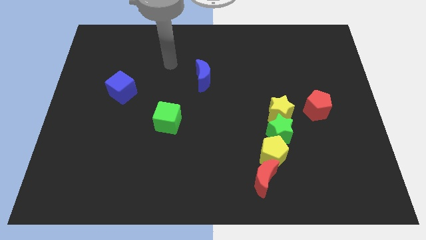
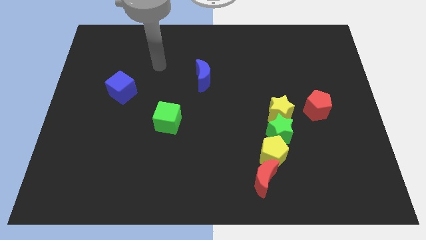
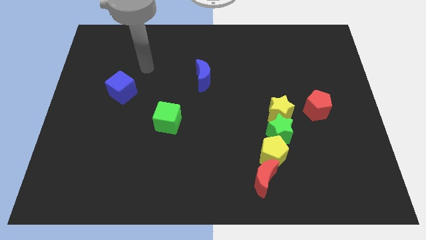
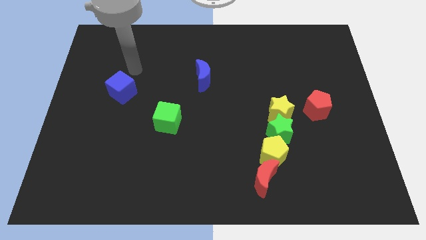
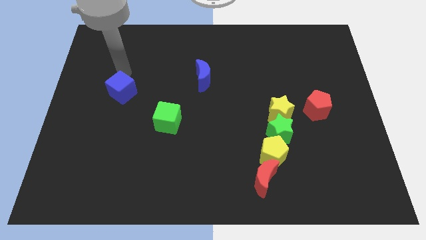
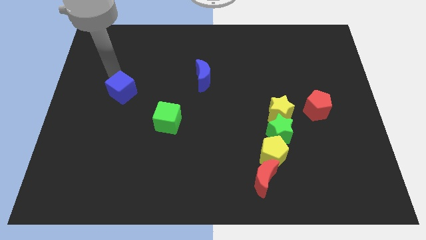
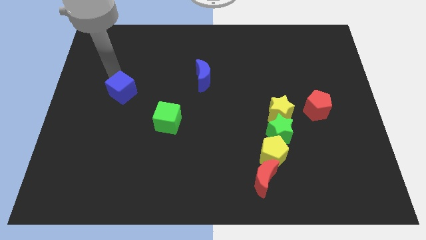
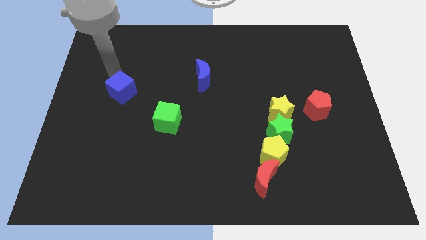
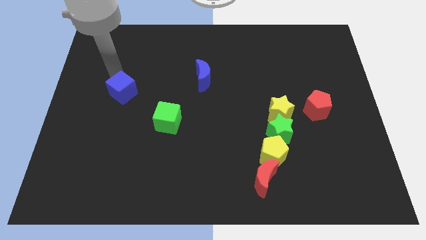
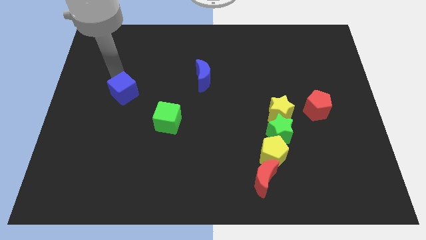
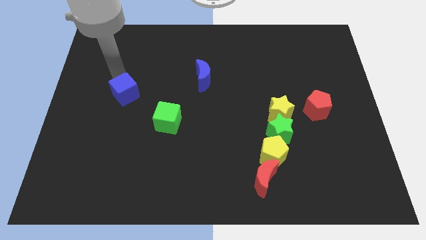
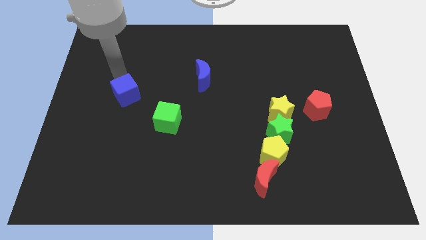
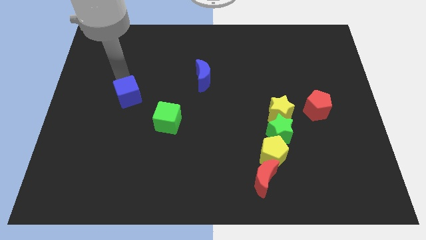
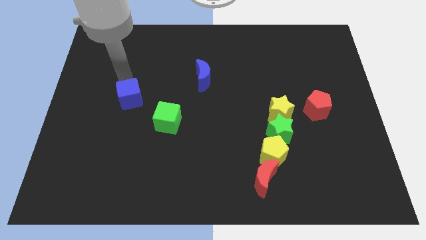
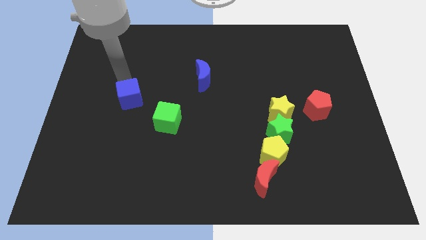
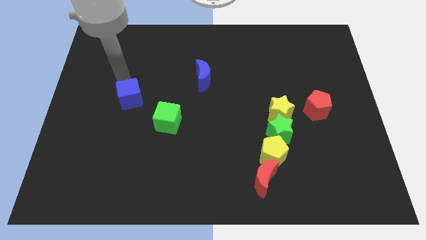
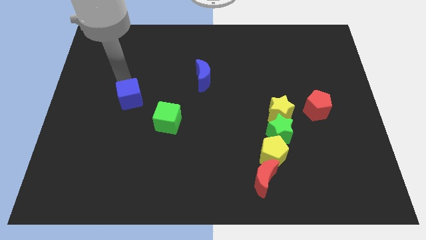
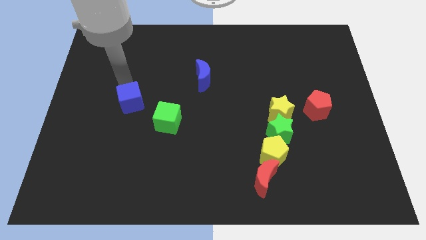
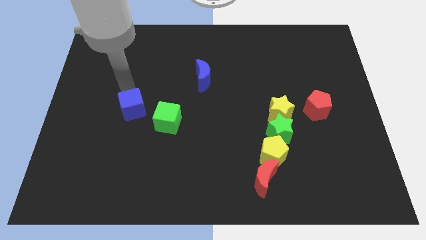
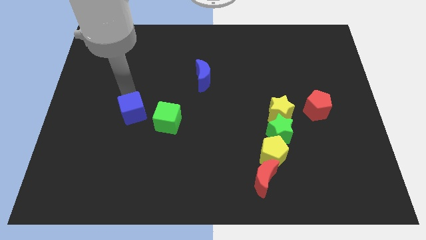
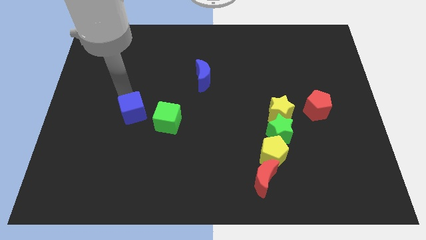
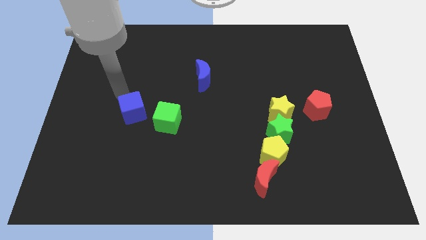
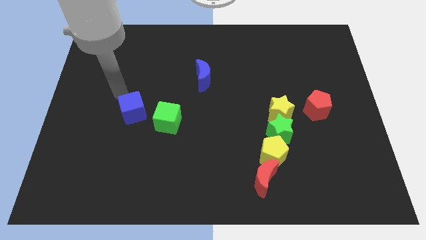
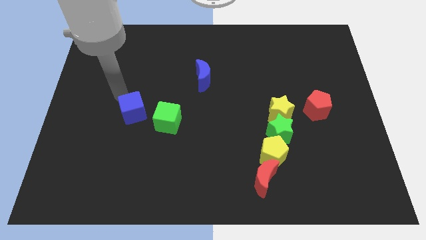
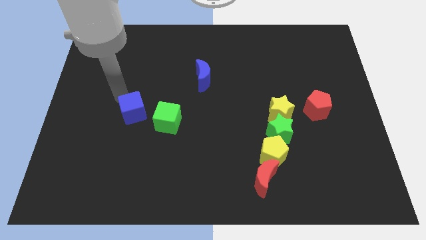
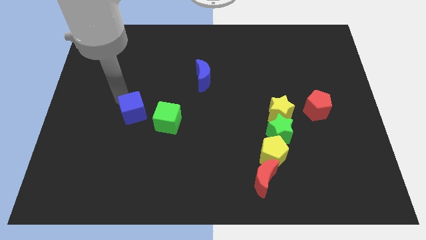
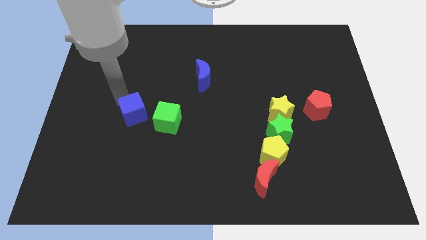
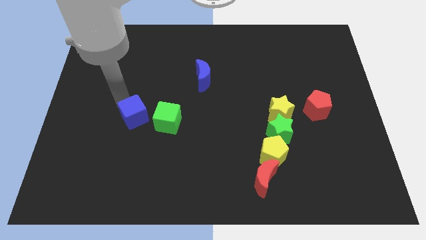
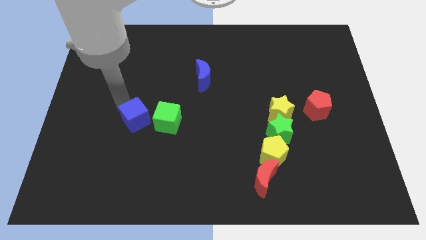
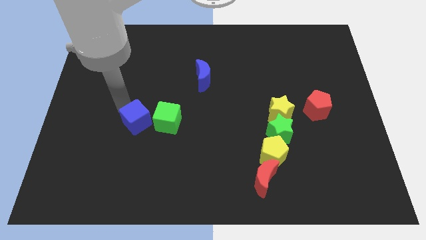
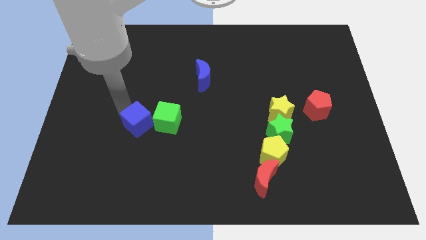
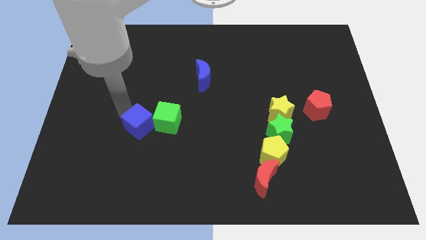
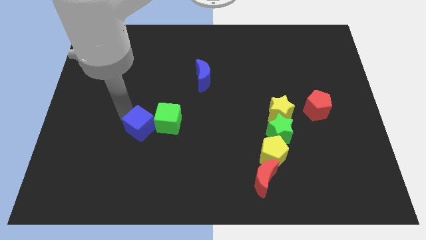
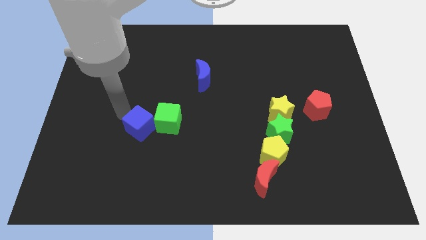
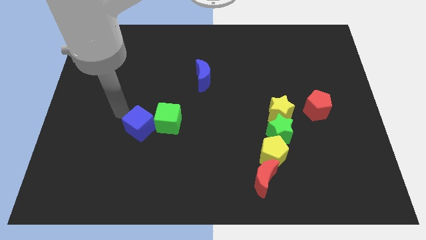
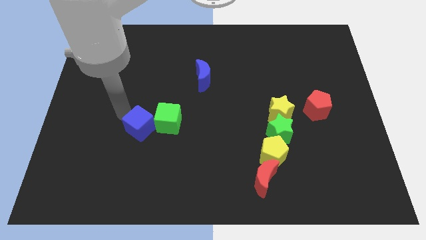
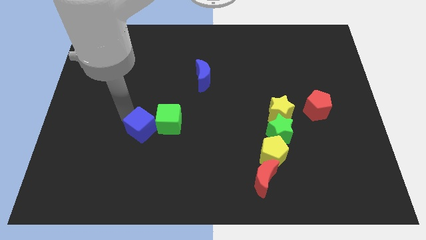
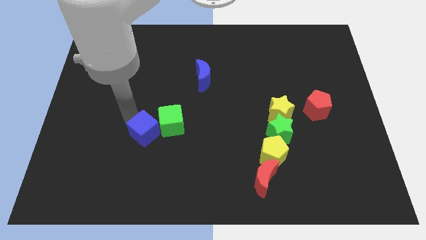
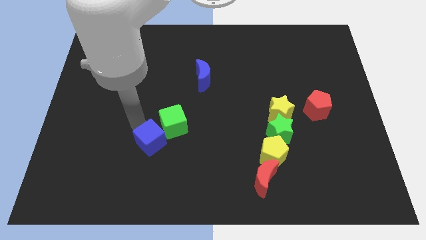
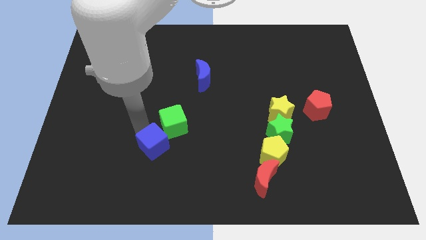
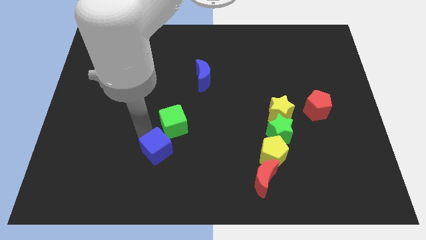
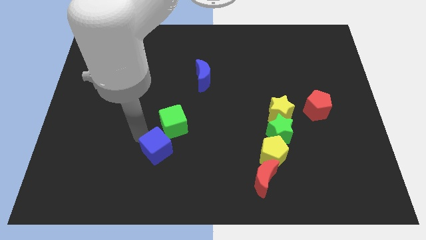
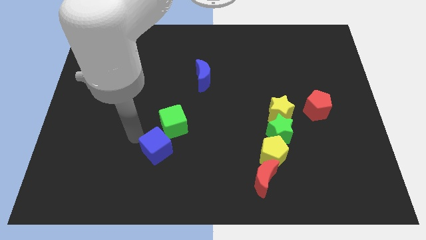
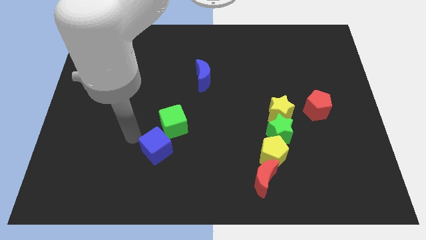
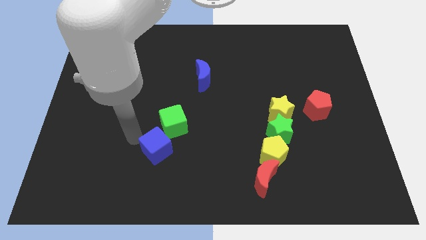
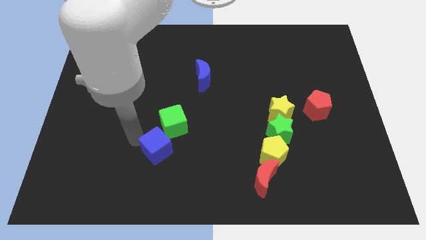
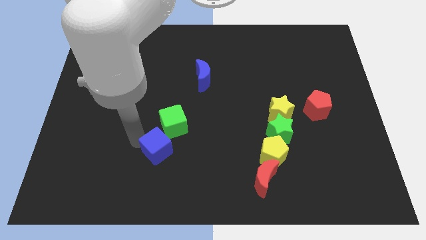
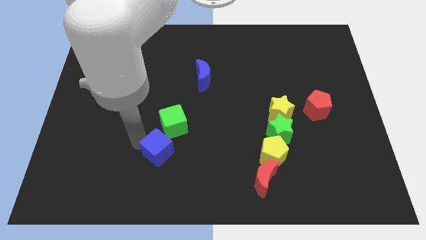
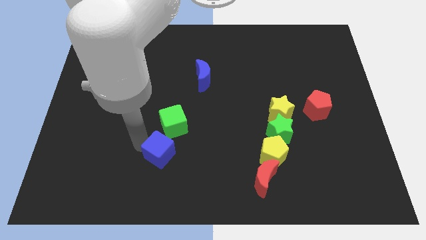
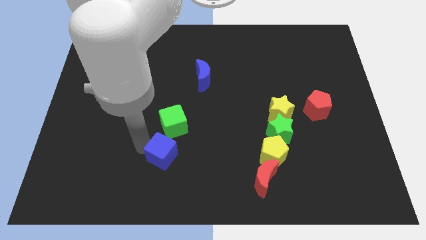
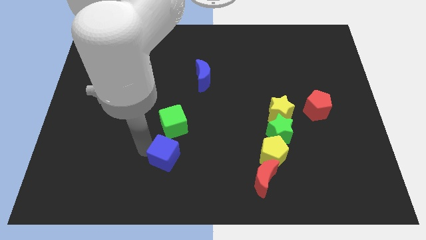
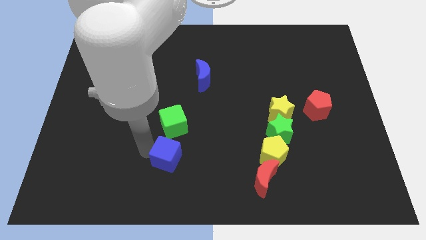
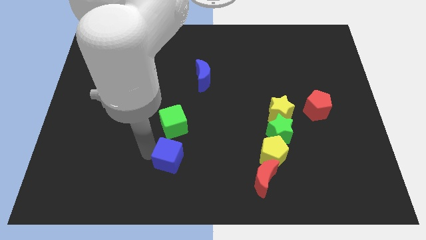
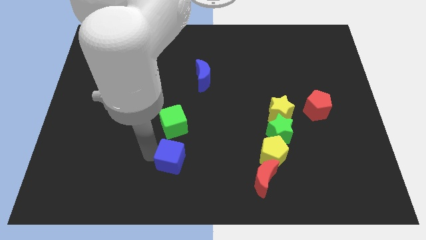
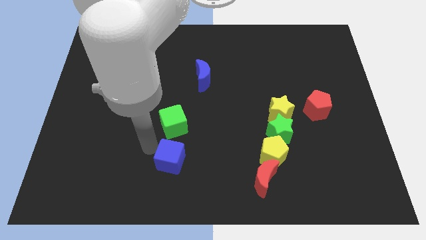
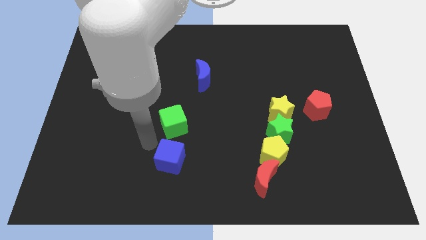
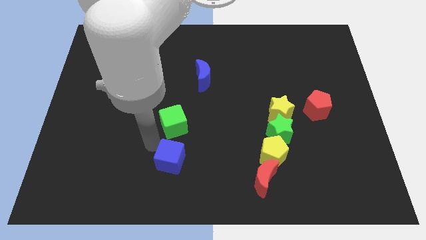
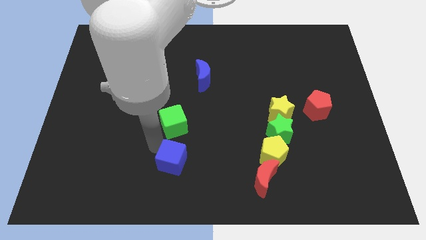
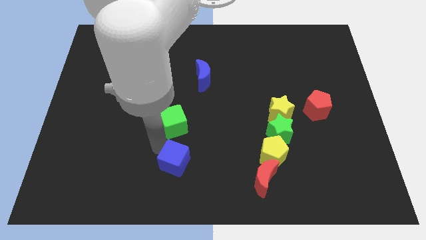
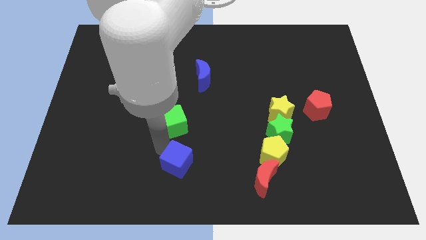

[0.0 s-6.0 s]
put the blue cube to the bottom side

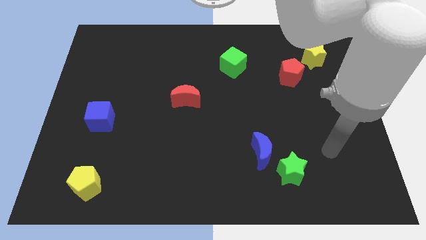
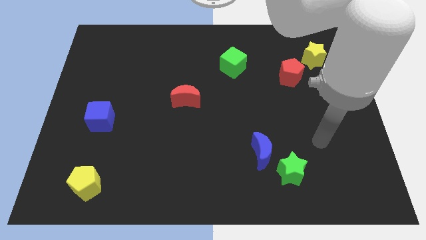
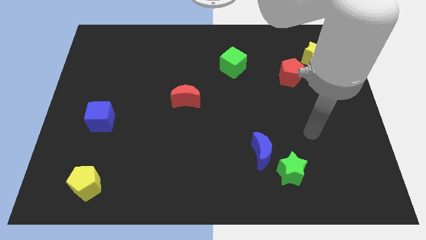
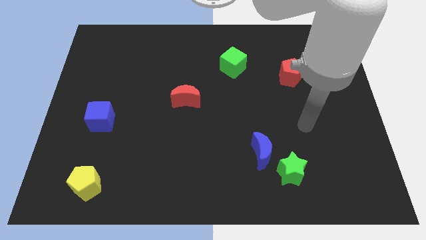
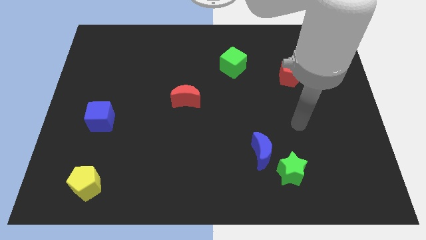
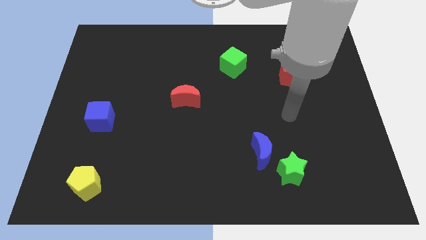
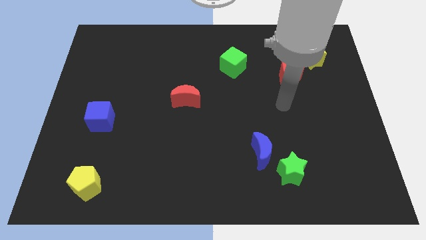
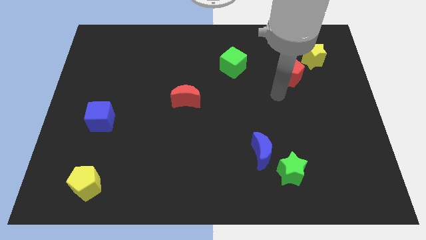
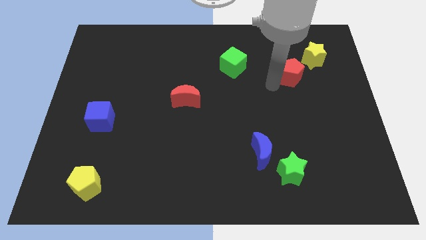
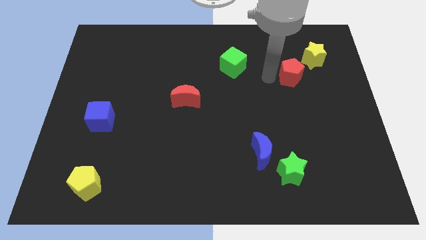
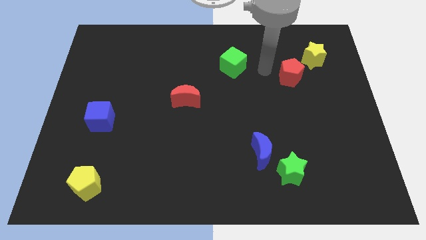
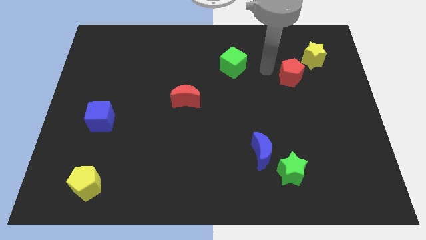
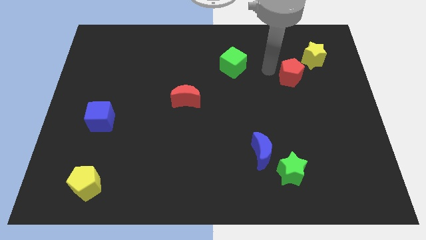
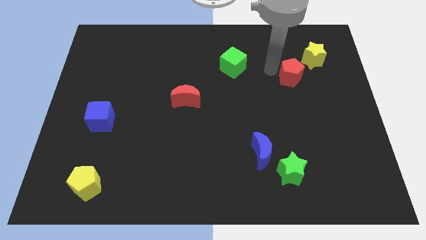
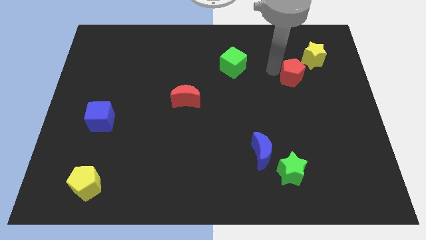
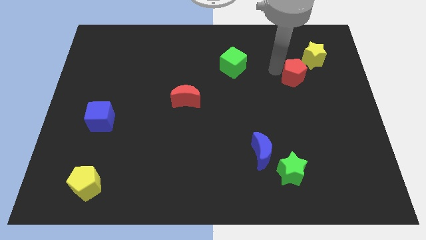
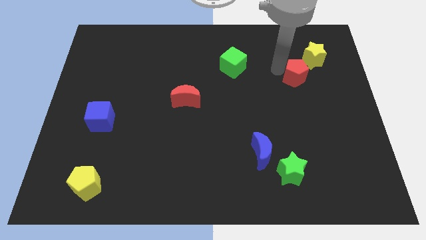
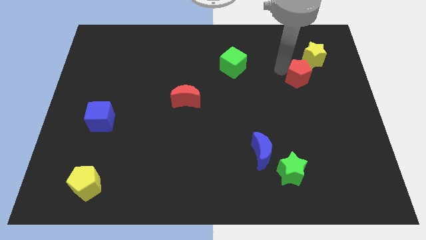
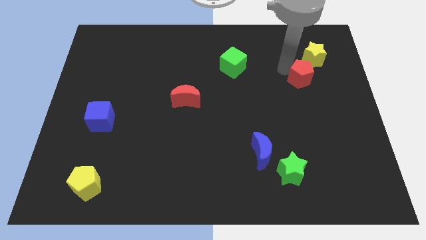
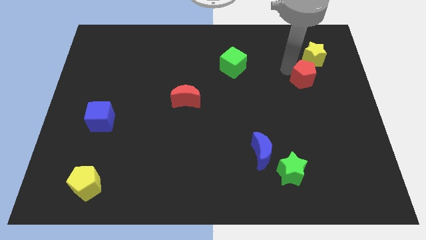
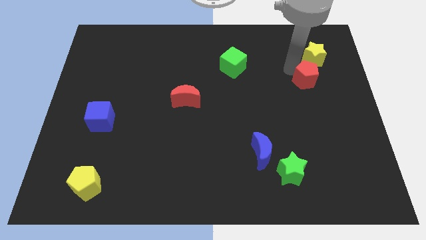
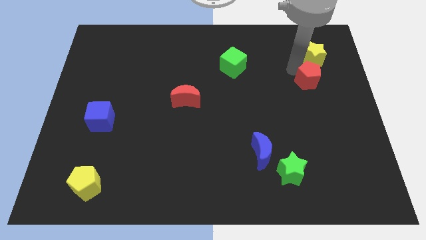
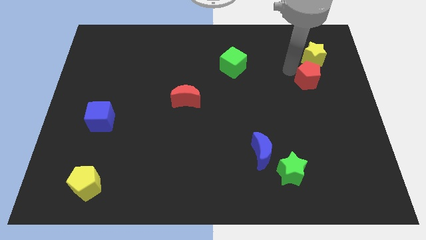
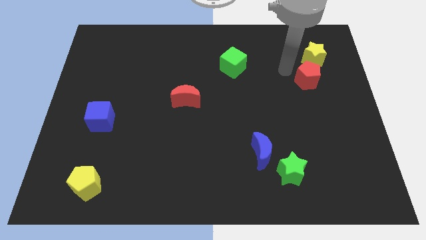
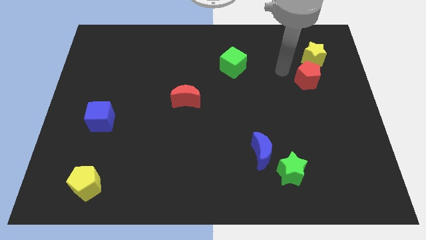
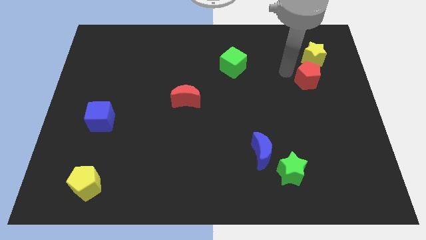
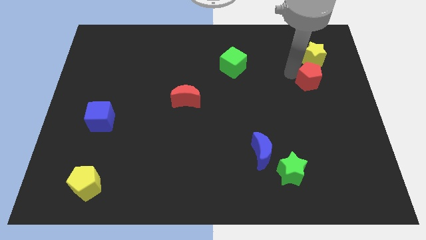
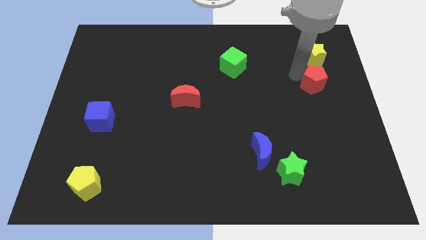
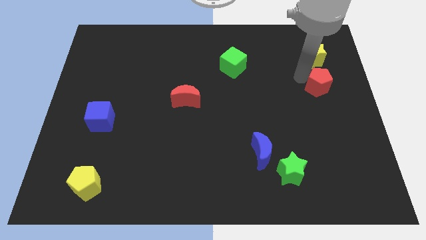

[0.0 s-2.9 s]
push the red pentagon to the right side
